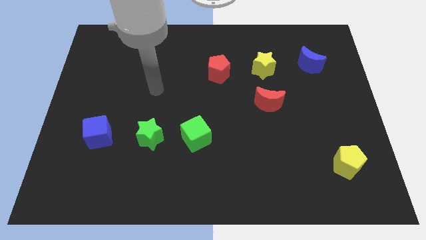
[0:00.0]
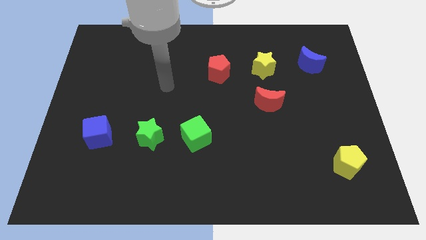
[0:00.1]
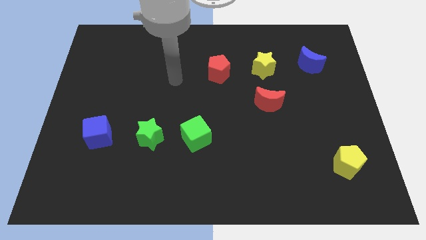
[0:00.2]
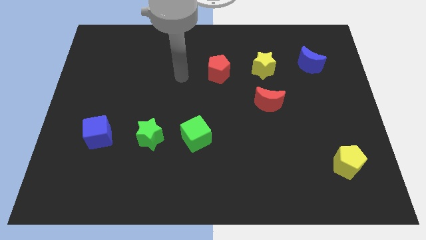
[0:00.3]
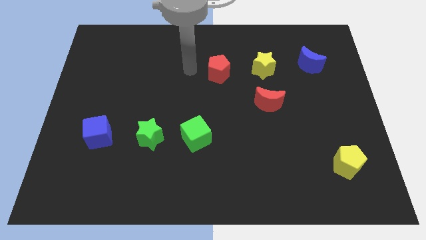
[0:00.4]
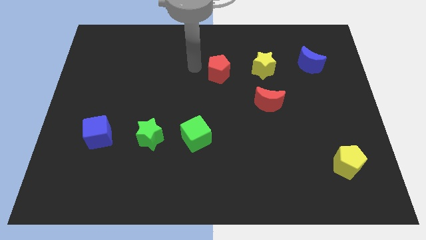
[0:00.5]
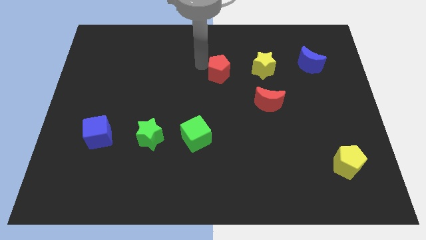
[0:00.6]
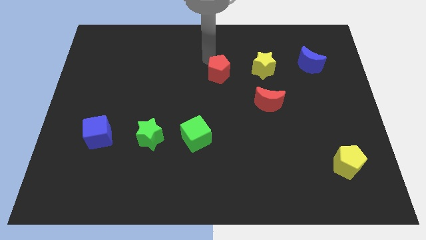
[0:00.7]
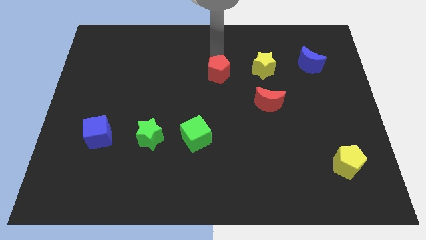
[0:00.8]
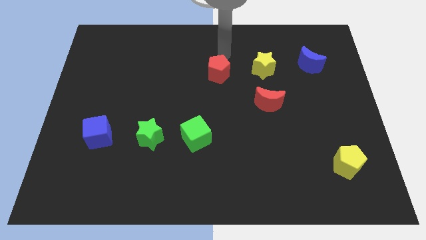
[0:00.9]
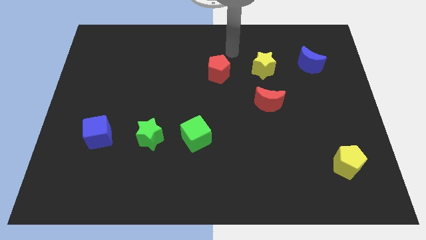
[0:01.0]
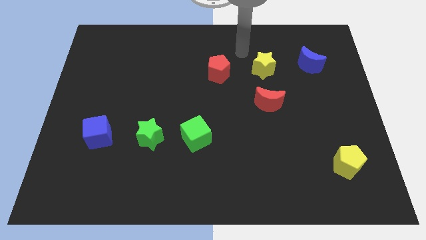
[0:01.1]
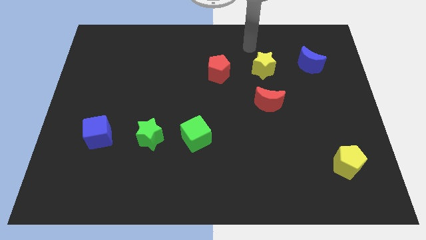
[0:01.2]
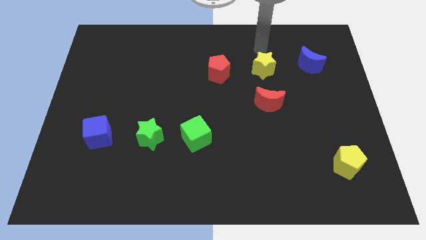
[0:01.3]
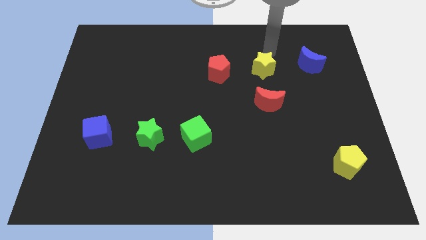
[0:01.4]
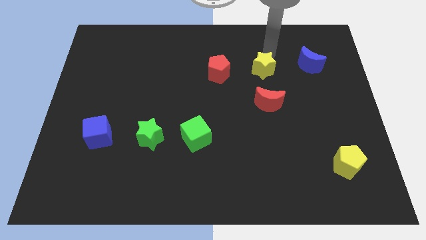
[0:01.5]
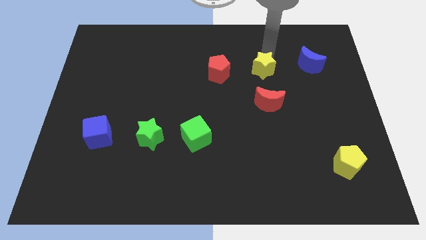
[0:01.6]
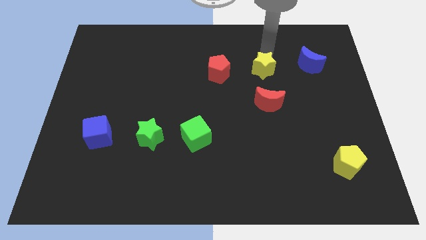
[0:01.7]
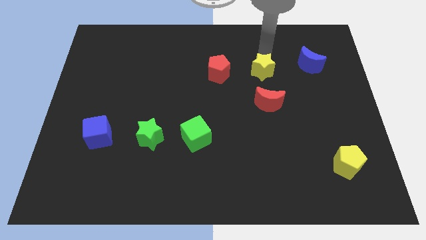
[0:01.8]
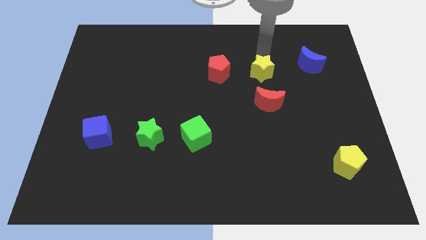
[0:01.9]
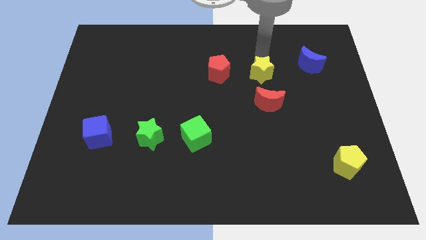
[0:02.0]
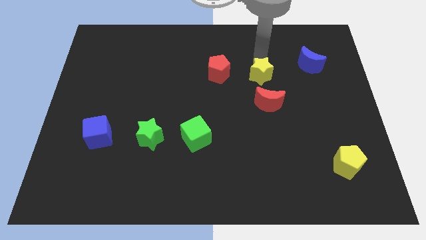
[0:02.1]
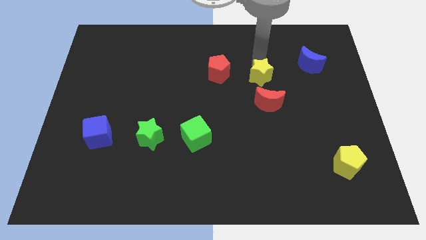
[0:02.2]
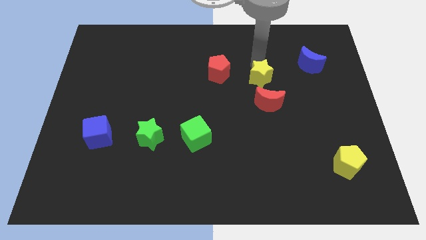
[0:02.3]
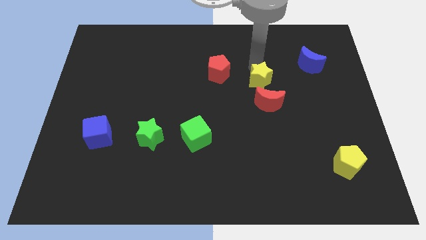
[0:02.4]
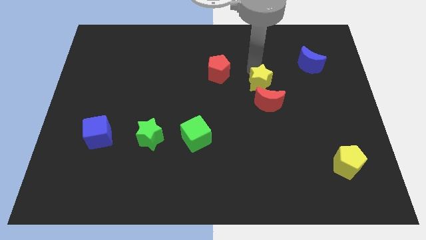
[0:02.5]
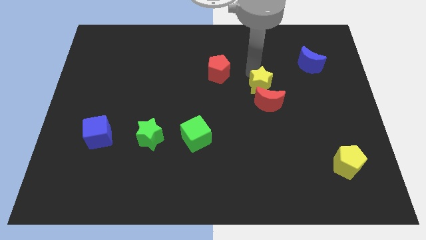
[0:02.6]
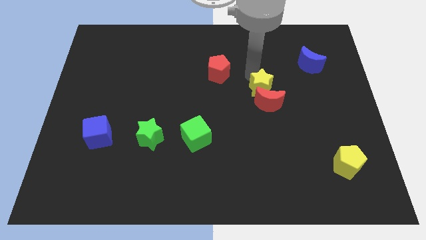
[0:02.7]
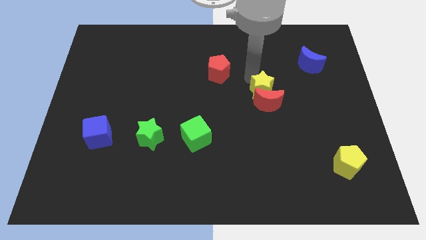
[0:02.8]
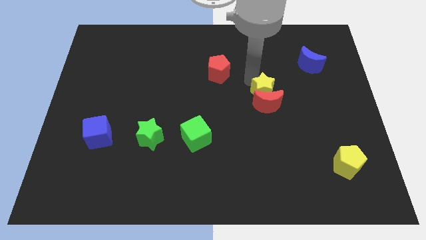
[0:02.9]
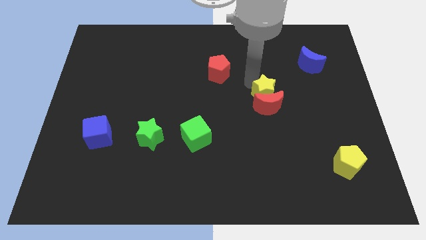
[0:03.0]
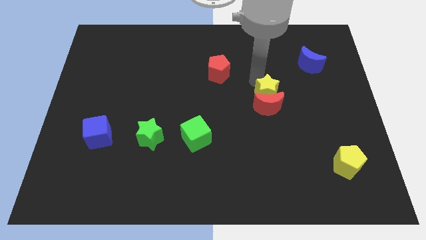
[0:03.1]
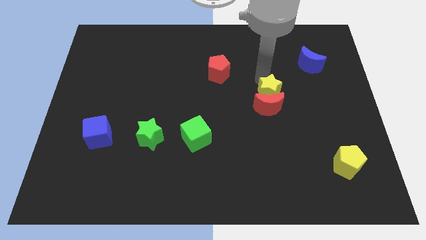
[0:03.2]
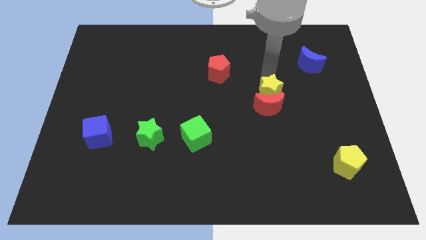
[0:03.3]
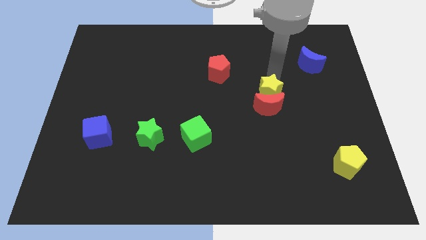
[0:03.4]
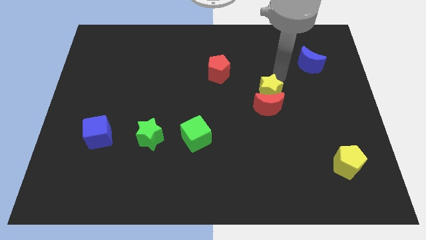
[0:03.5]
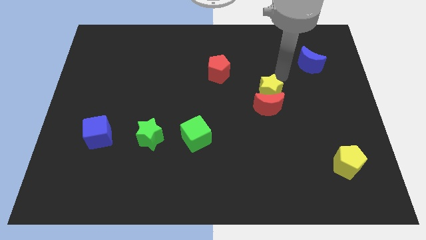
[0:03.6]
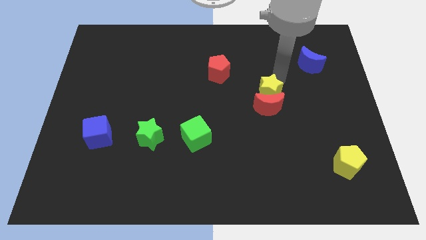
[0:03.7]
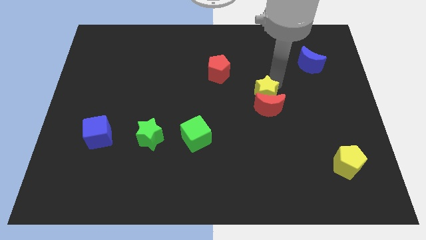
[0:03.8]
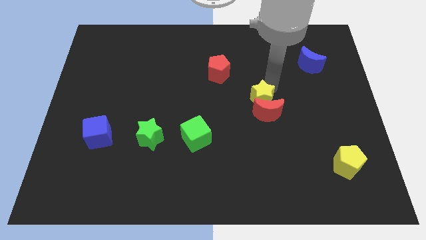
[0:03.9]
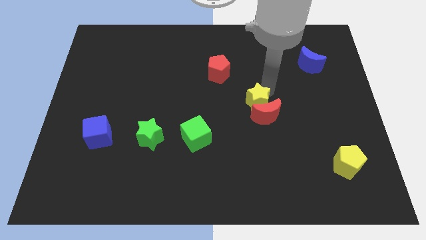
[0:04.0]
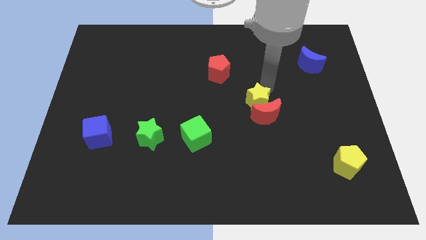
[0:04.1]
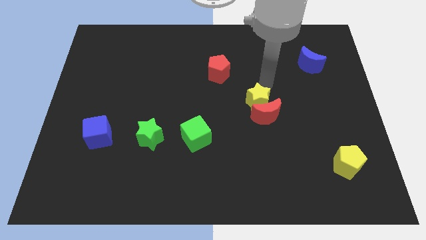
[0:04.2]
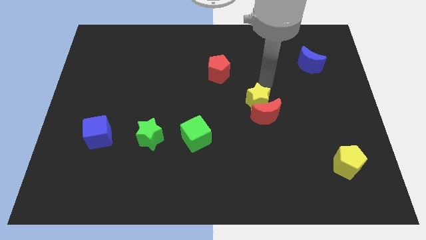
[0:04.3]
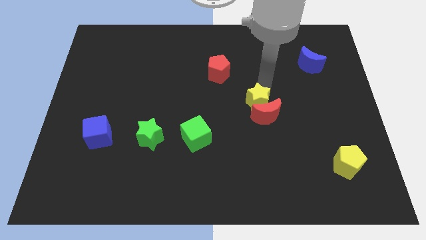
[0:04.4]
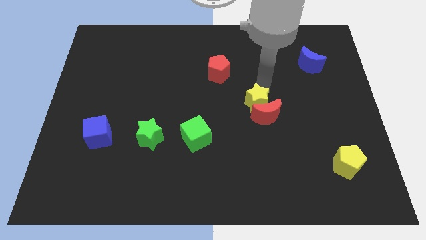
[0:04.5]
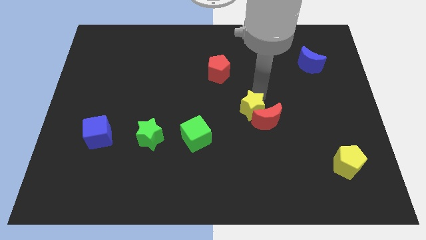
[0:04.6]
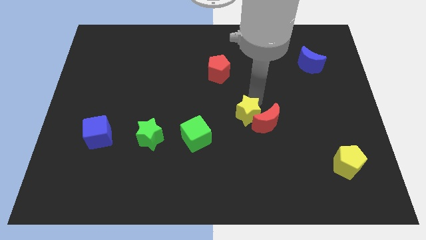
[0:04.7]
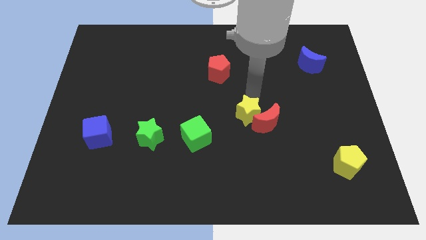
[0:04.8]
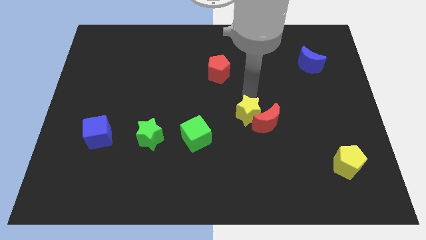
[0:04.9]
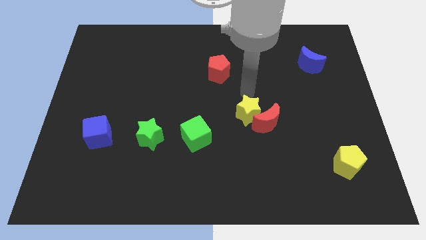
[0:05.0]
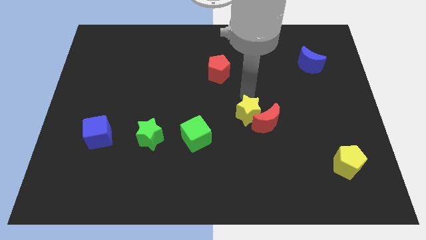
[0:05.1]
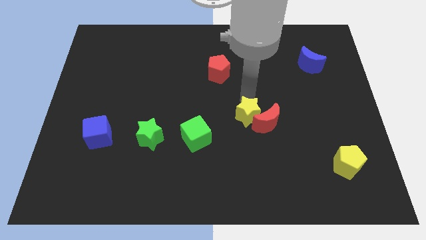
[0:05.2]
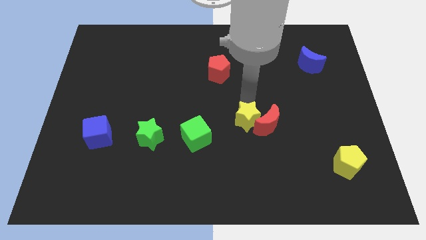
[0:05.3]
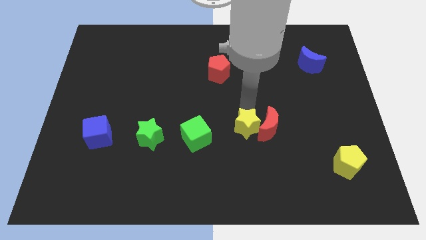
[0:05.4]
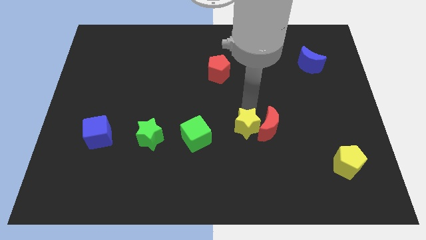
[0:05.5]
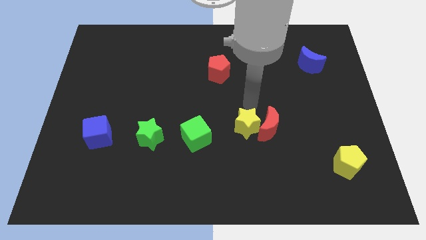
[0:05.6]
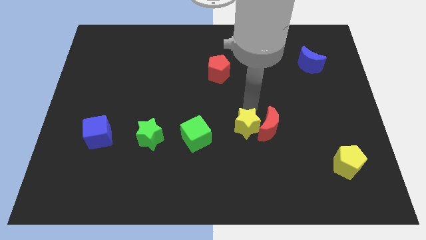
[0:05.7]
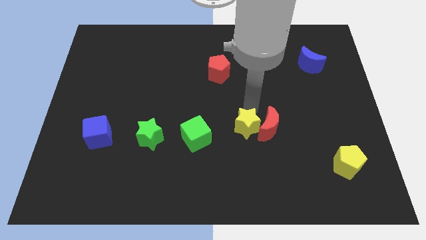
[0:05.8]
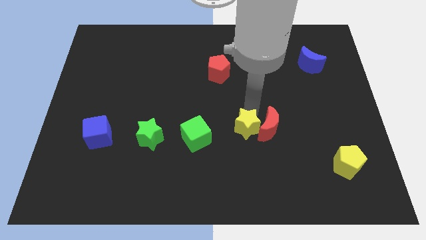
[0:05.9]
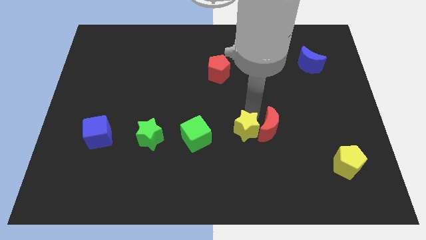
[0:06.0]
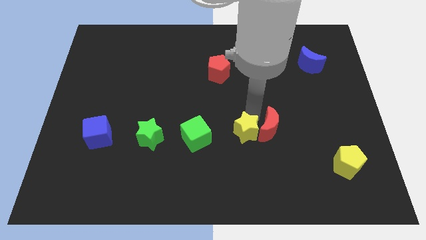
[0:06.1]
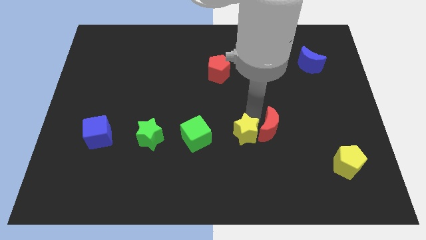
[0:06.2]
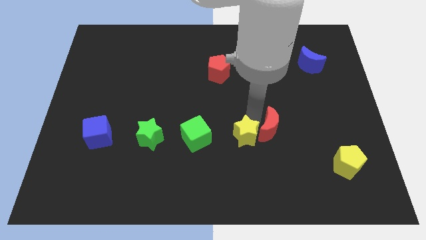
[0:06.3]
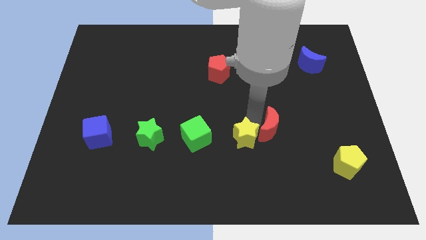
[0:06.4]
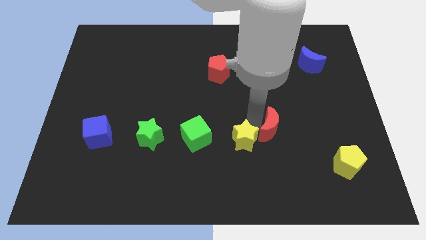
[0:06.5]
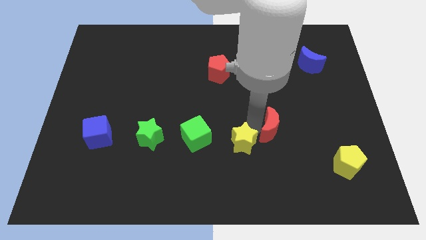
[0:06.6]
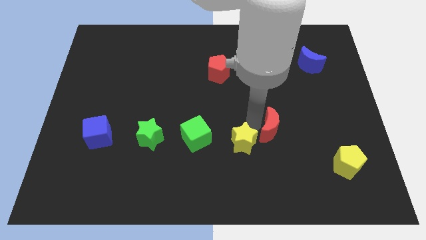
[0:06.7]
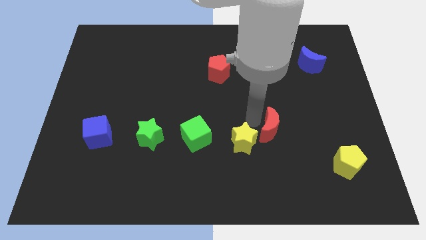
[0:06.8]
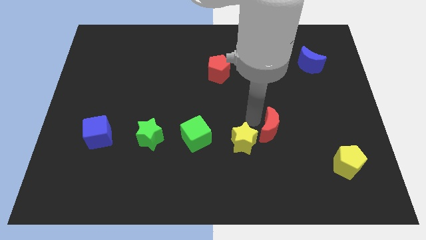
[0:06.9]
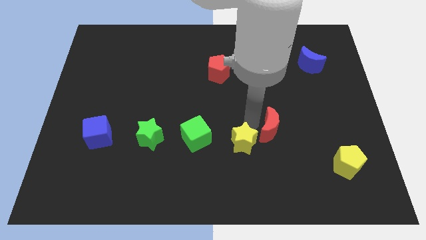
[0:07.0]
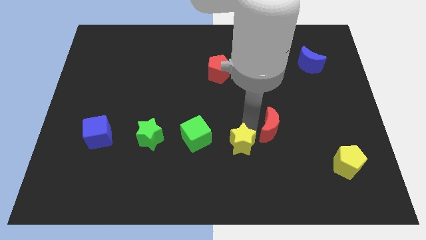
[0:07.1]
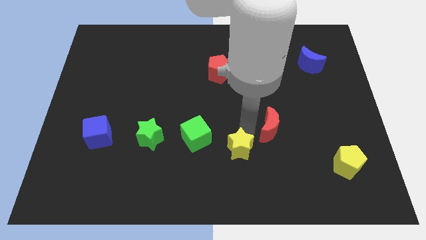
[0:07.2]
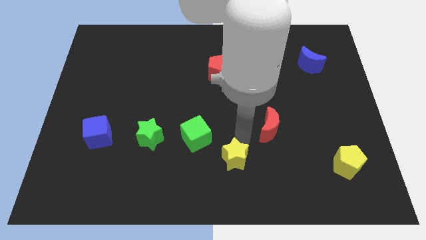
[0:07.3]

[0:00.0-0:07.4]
slide the yellow star to the bottom
